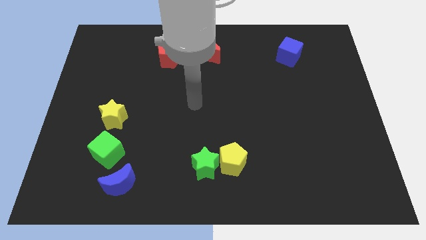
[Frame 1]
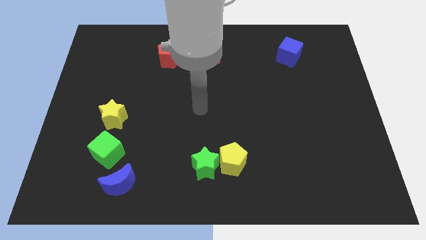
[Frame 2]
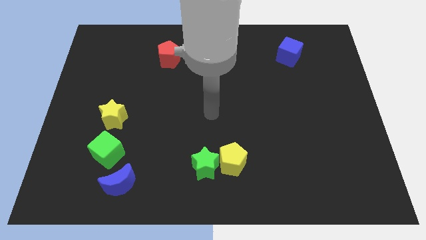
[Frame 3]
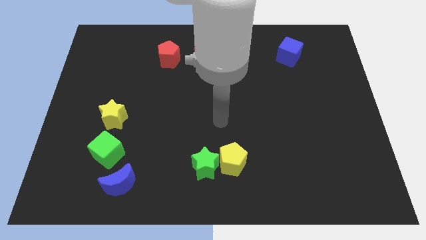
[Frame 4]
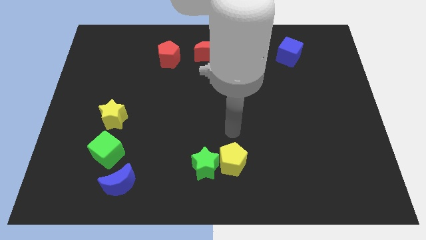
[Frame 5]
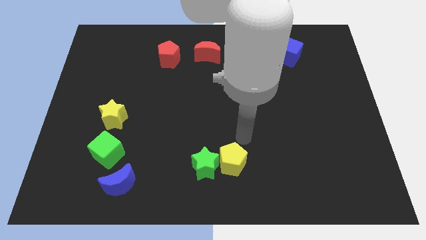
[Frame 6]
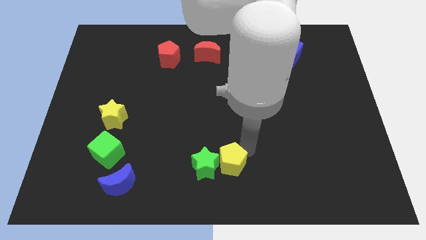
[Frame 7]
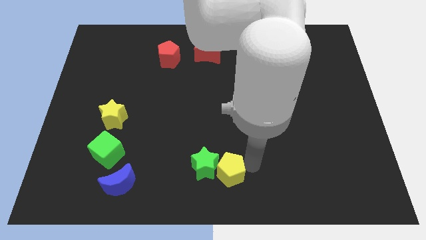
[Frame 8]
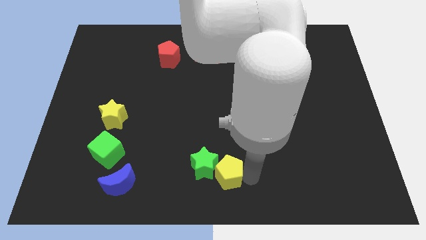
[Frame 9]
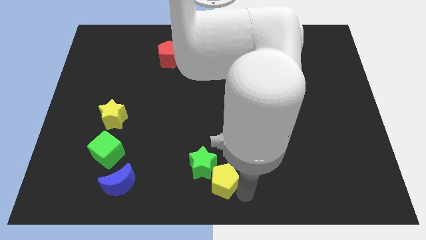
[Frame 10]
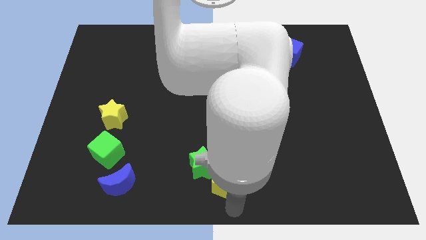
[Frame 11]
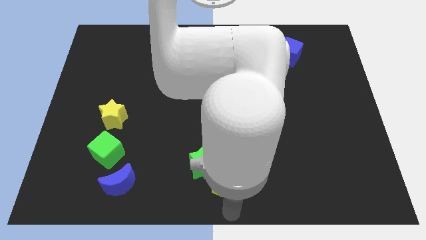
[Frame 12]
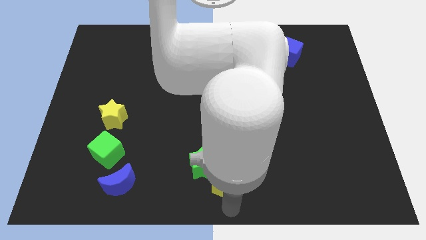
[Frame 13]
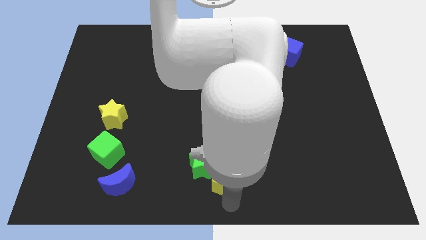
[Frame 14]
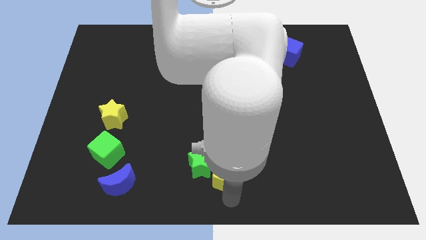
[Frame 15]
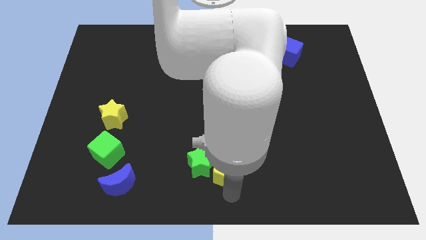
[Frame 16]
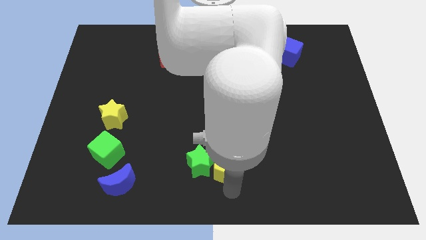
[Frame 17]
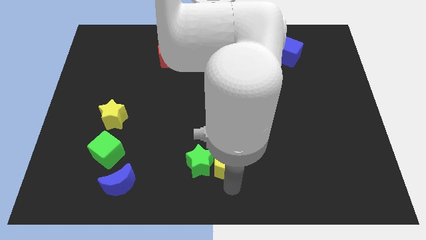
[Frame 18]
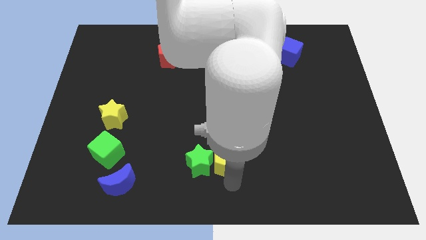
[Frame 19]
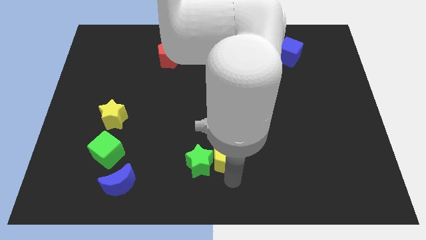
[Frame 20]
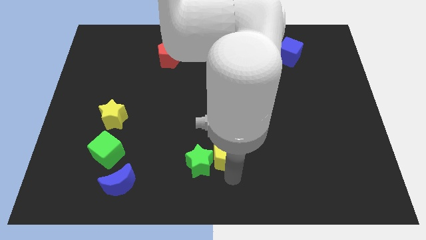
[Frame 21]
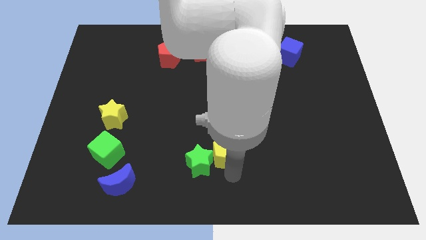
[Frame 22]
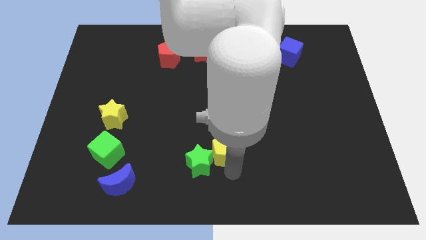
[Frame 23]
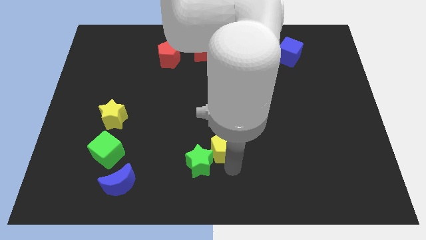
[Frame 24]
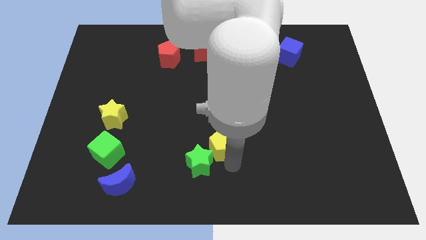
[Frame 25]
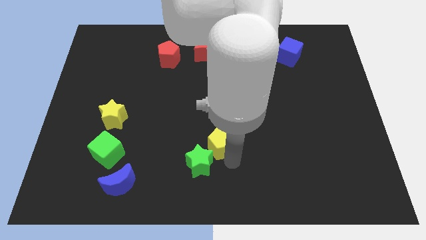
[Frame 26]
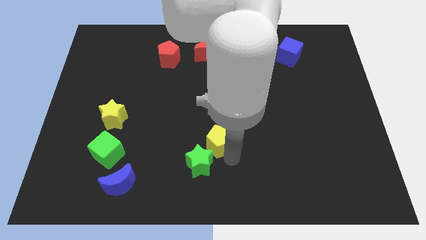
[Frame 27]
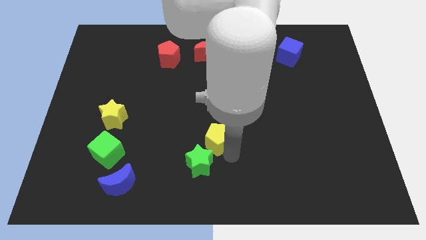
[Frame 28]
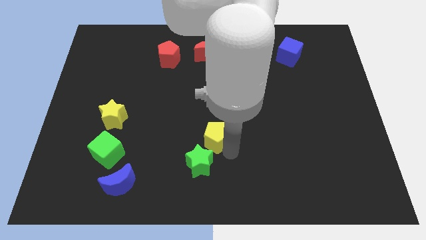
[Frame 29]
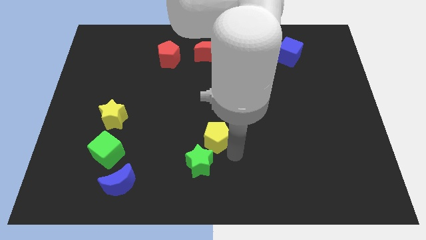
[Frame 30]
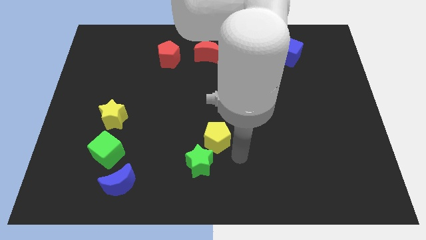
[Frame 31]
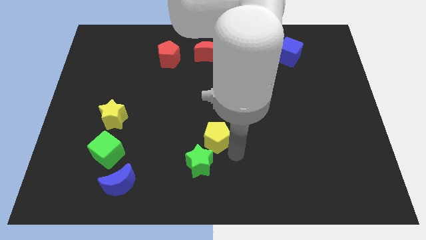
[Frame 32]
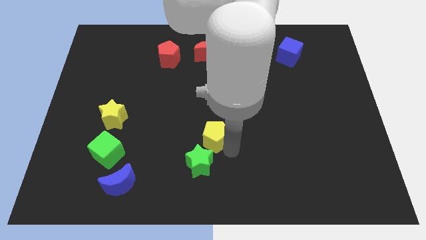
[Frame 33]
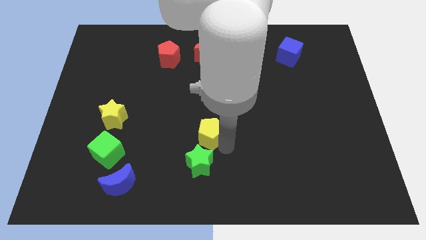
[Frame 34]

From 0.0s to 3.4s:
slightly slide the yellow pentagon upwards and then left

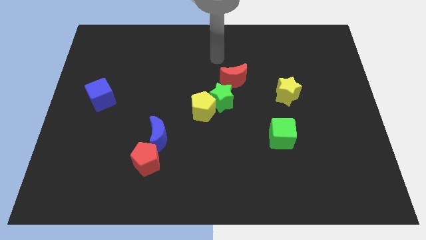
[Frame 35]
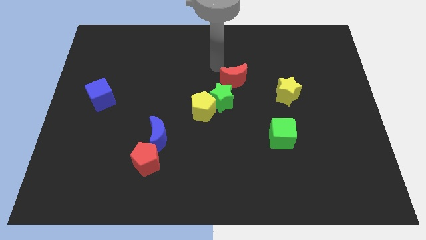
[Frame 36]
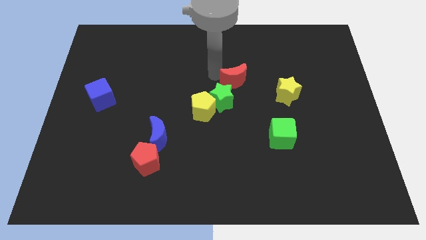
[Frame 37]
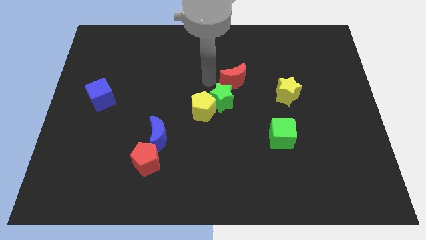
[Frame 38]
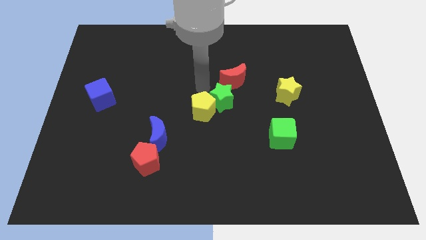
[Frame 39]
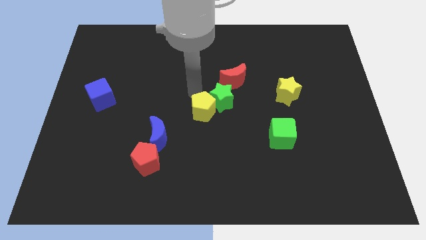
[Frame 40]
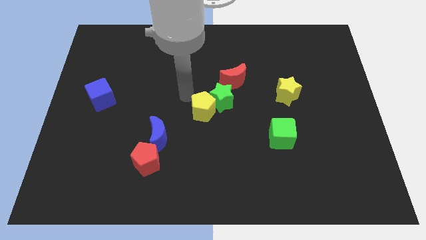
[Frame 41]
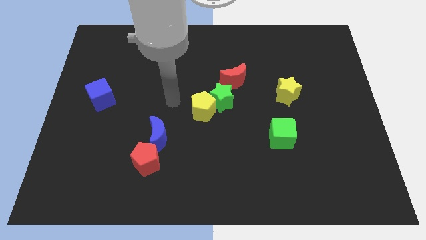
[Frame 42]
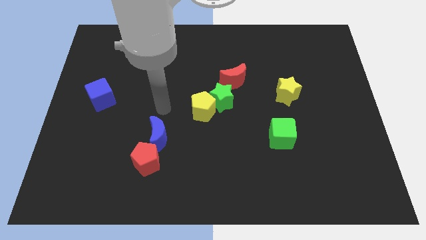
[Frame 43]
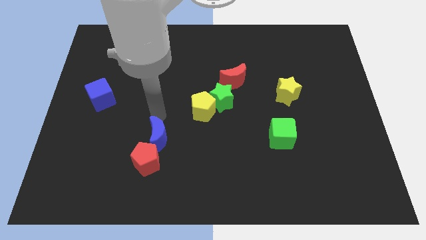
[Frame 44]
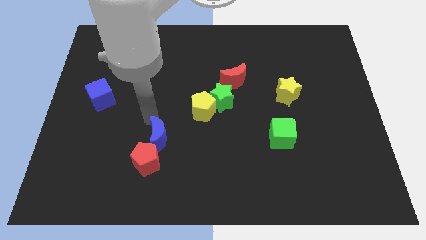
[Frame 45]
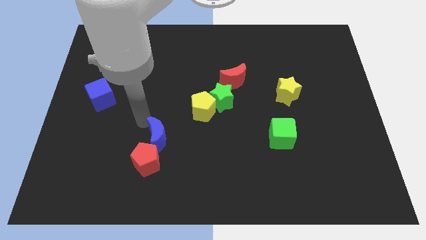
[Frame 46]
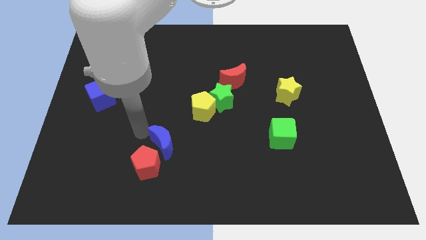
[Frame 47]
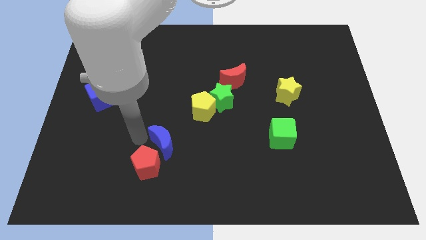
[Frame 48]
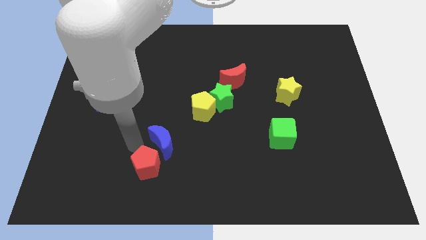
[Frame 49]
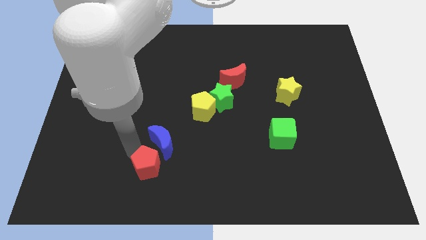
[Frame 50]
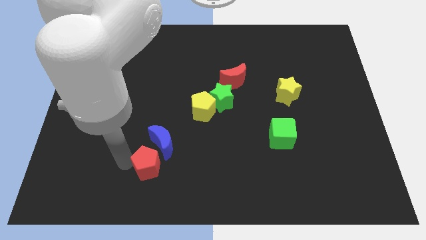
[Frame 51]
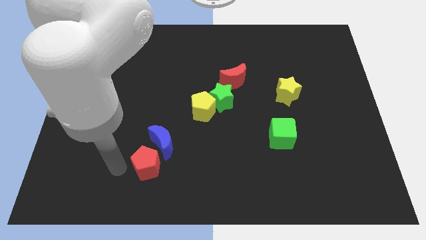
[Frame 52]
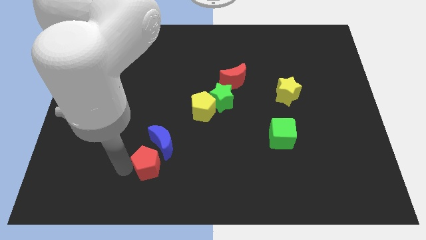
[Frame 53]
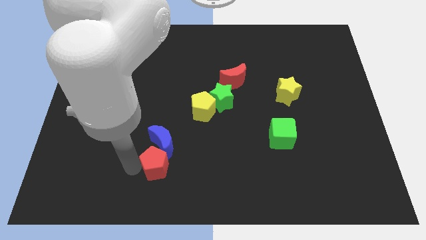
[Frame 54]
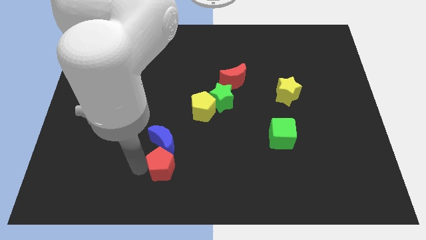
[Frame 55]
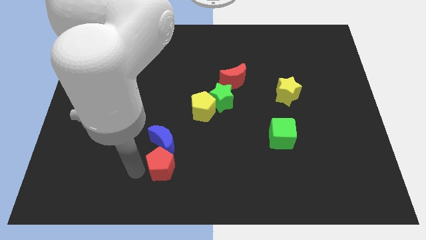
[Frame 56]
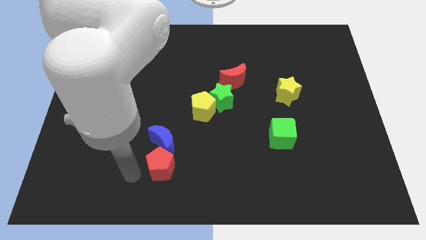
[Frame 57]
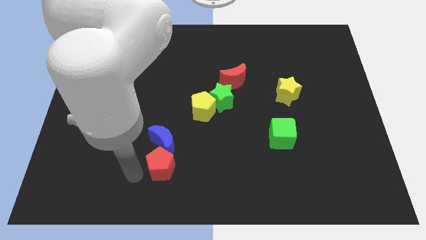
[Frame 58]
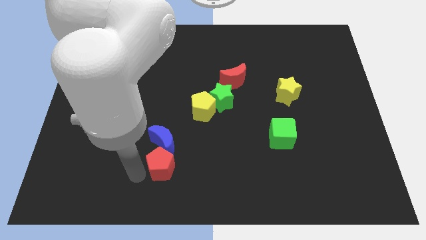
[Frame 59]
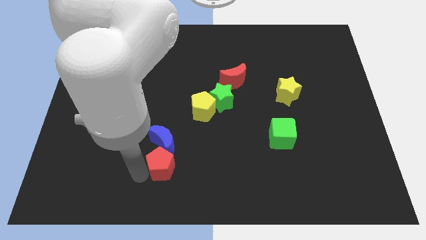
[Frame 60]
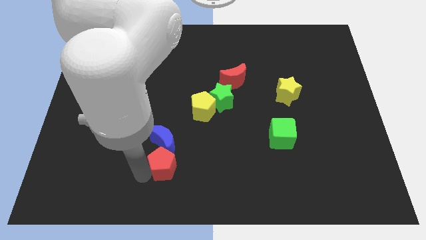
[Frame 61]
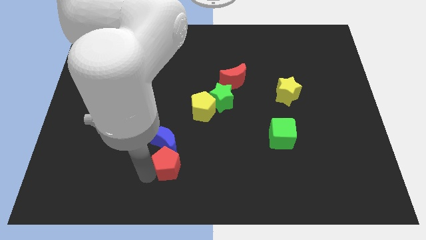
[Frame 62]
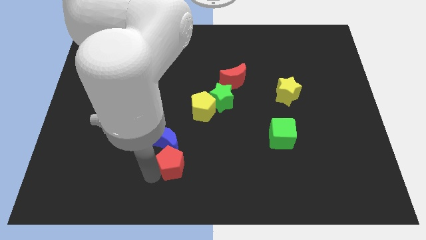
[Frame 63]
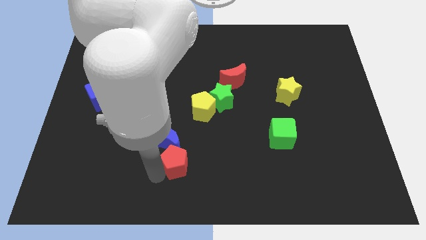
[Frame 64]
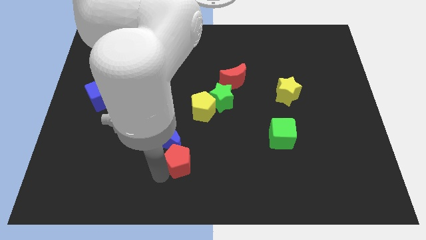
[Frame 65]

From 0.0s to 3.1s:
slide the red pentagon to the right somewhat

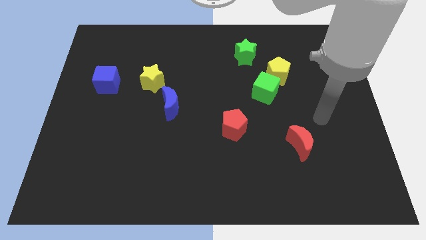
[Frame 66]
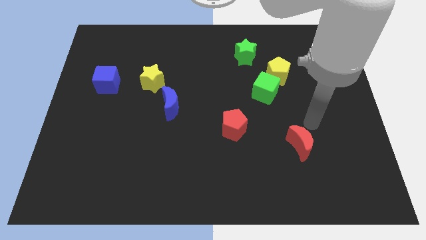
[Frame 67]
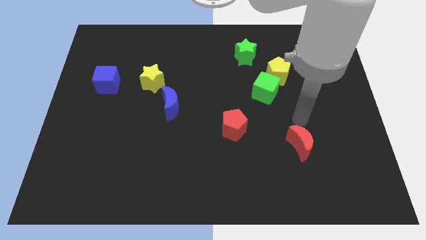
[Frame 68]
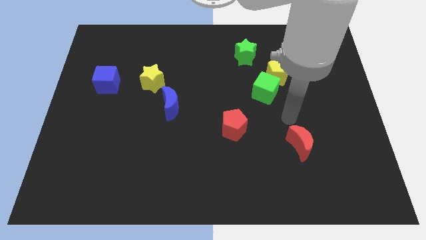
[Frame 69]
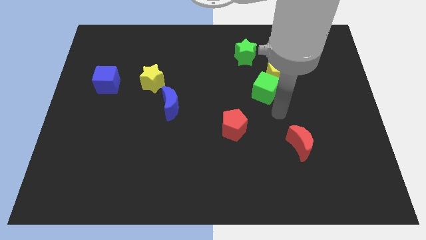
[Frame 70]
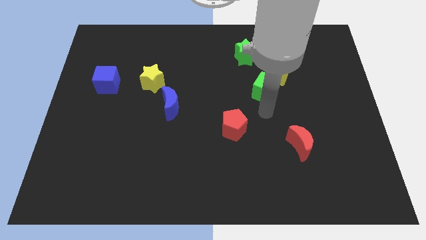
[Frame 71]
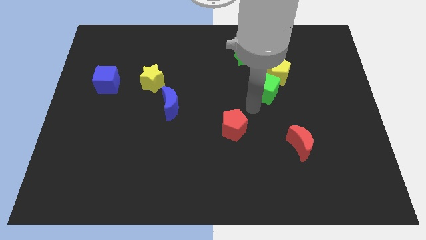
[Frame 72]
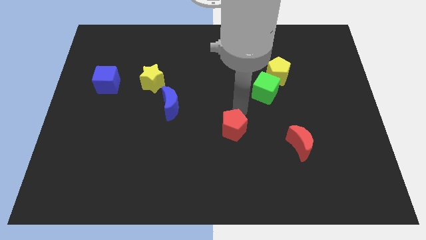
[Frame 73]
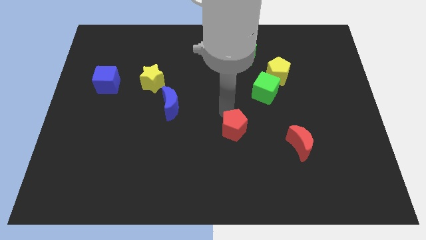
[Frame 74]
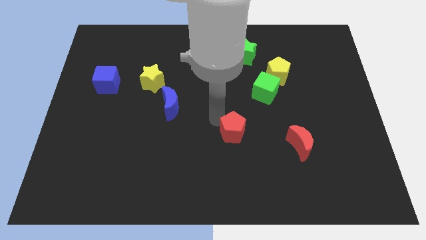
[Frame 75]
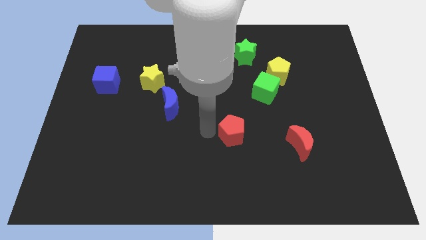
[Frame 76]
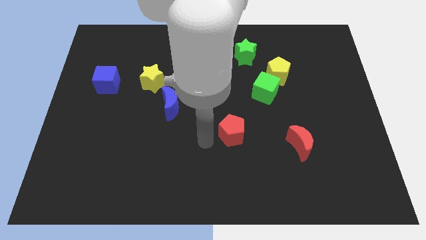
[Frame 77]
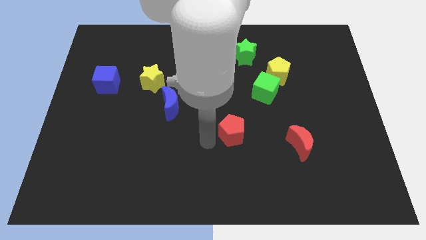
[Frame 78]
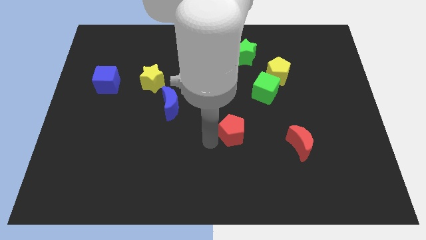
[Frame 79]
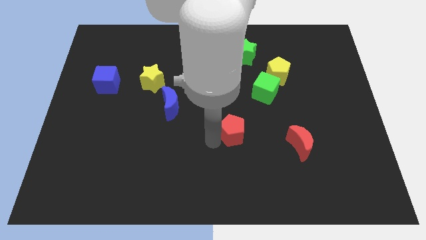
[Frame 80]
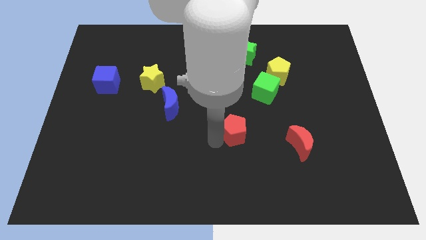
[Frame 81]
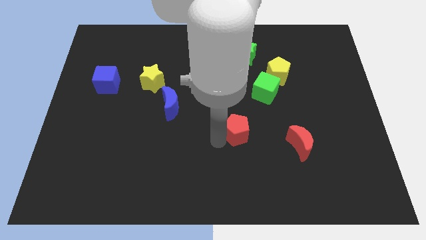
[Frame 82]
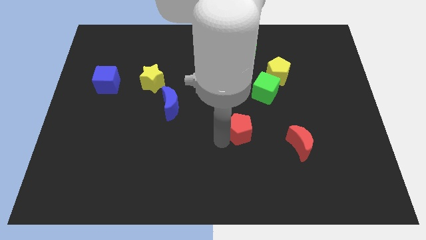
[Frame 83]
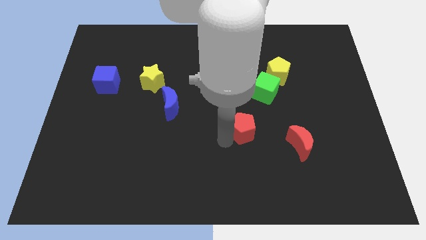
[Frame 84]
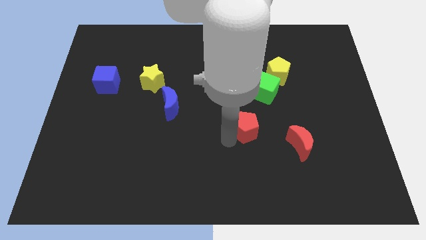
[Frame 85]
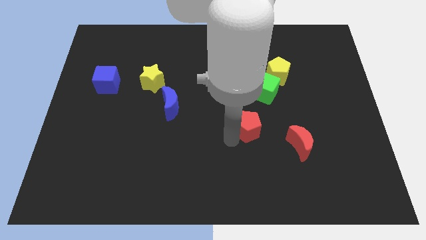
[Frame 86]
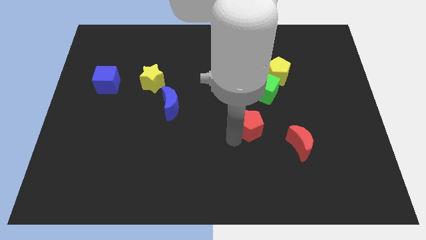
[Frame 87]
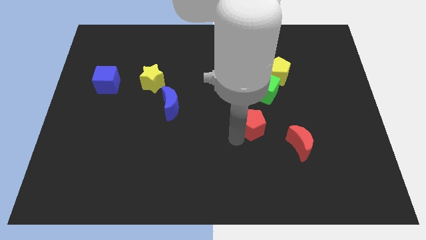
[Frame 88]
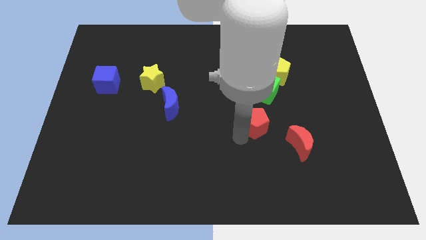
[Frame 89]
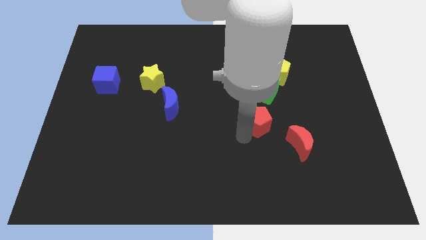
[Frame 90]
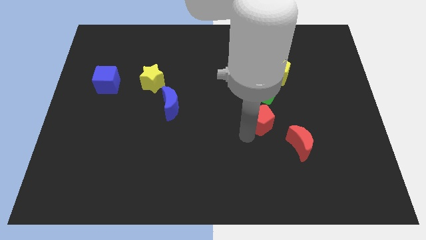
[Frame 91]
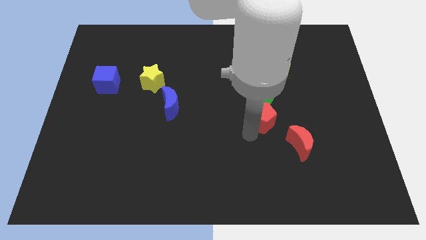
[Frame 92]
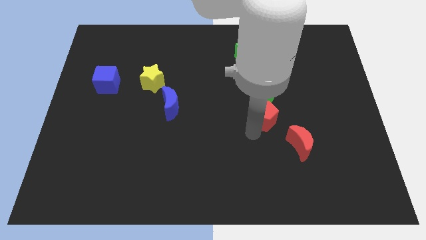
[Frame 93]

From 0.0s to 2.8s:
push the red pentagon a bit to the right
